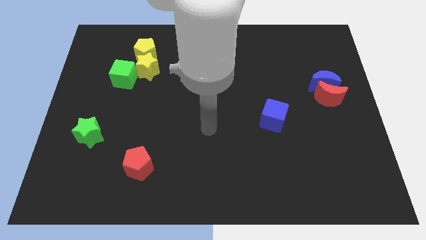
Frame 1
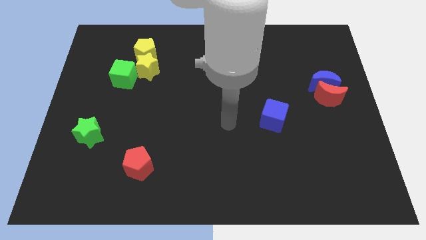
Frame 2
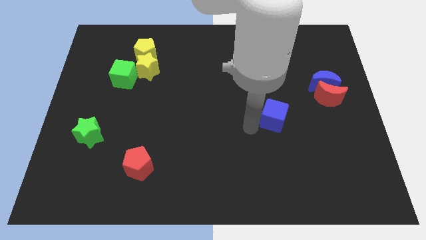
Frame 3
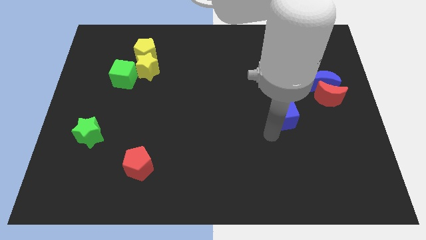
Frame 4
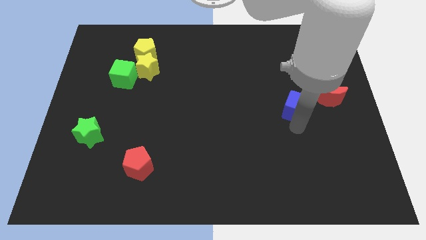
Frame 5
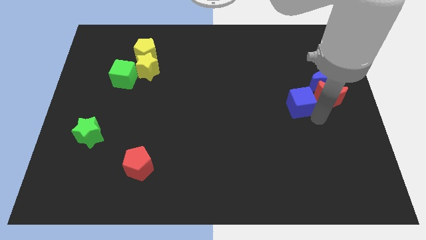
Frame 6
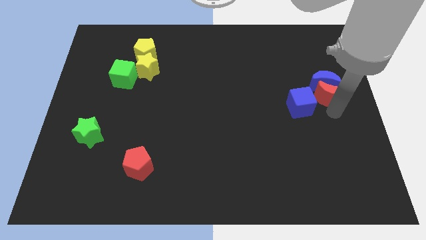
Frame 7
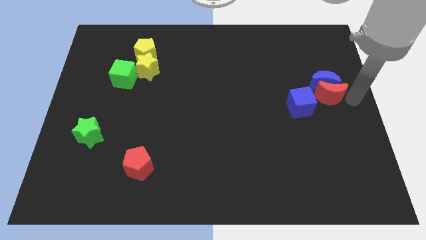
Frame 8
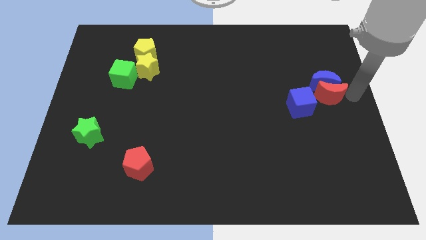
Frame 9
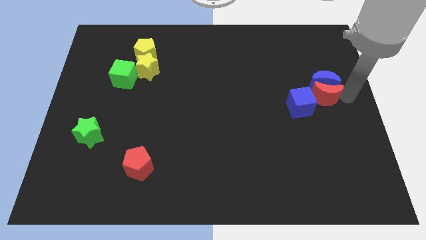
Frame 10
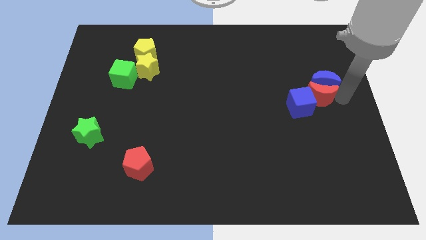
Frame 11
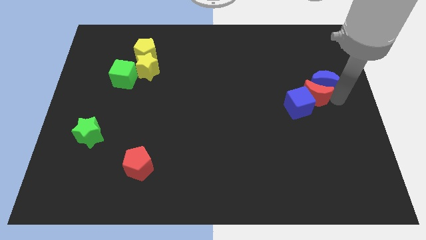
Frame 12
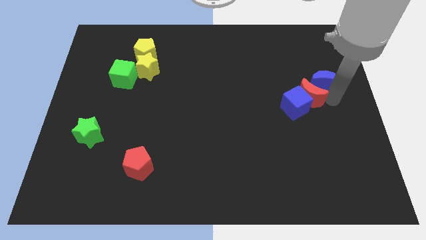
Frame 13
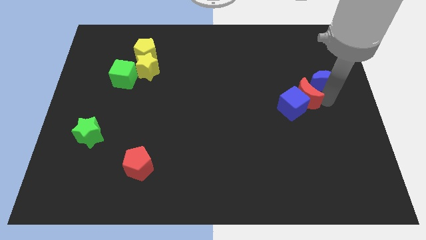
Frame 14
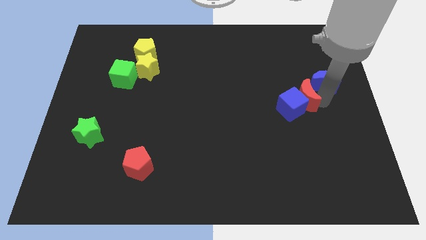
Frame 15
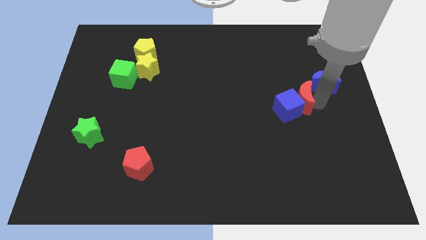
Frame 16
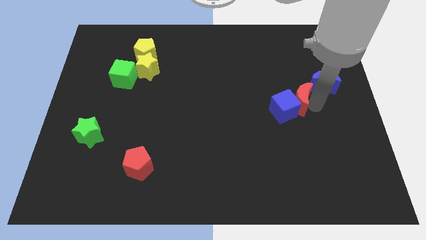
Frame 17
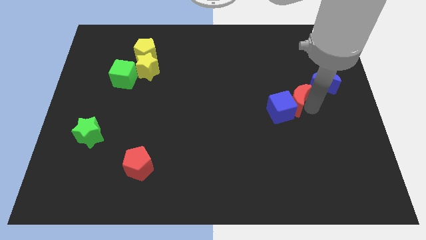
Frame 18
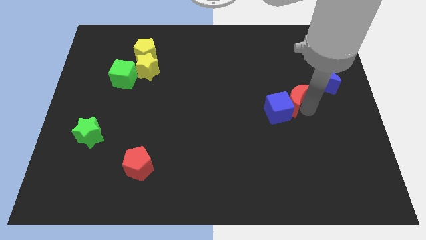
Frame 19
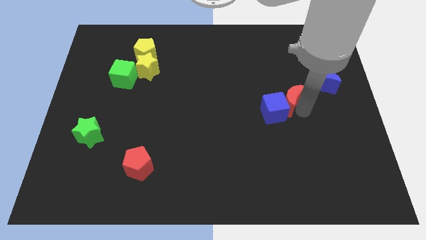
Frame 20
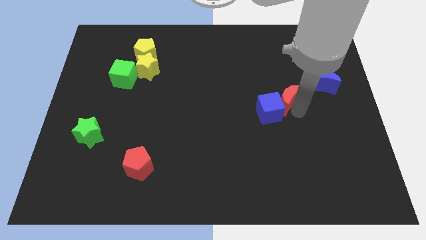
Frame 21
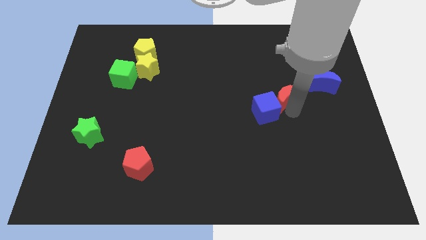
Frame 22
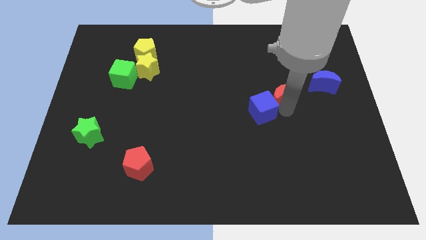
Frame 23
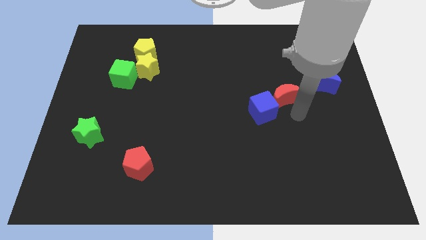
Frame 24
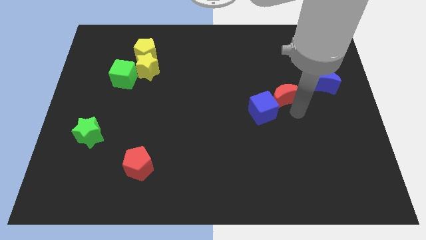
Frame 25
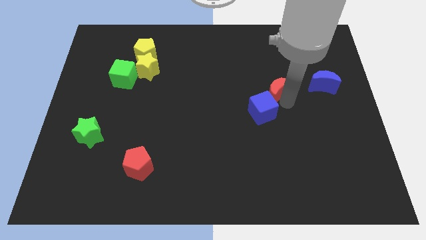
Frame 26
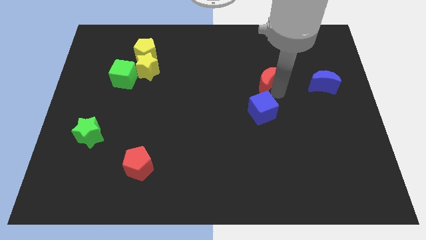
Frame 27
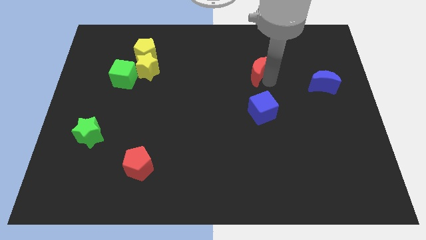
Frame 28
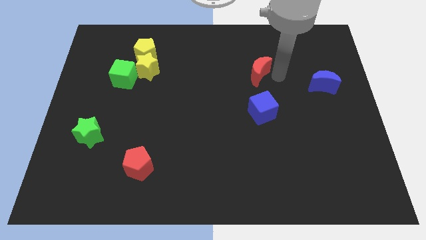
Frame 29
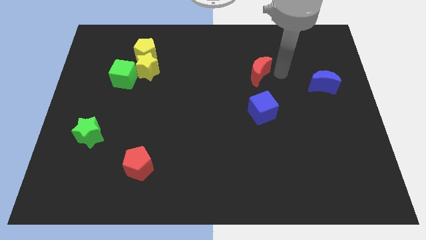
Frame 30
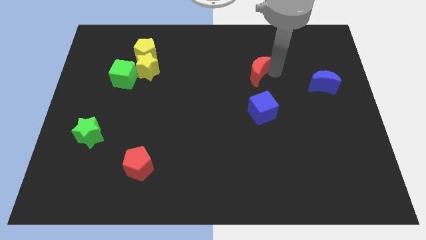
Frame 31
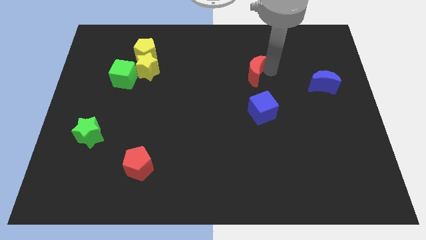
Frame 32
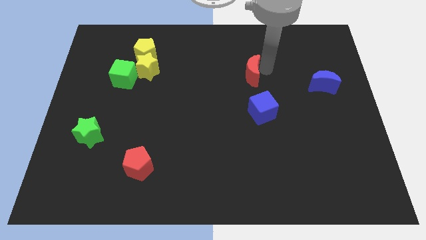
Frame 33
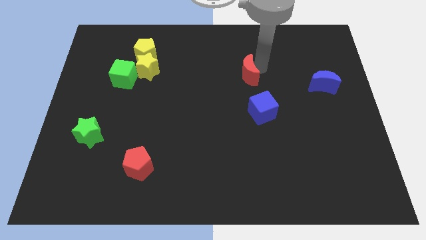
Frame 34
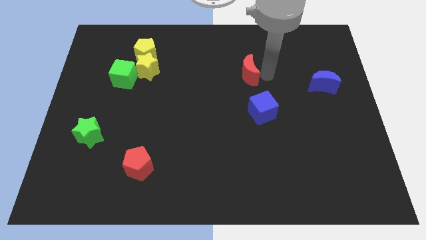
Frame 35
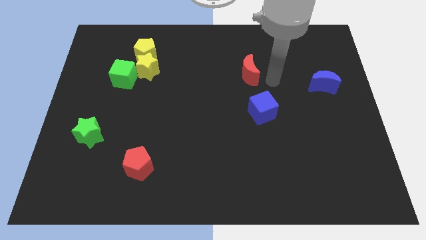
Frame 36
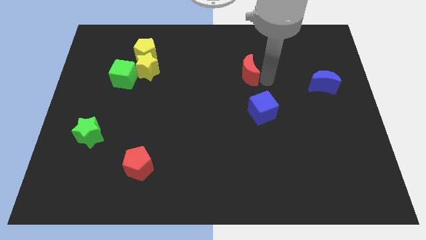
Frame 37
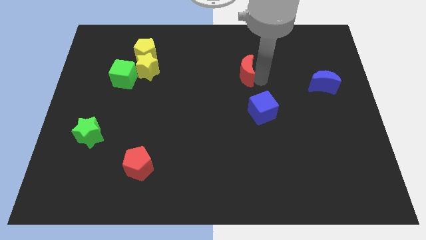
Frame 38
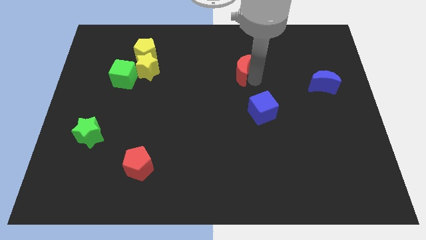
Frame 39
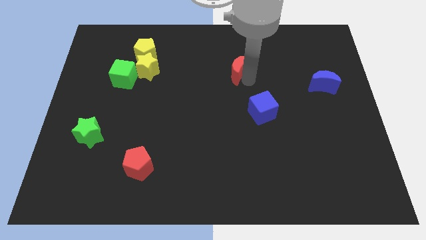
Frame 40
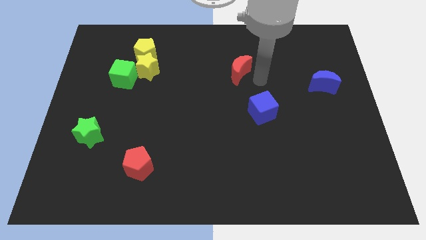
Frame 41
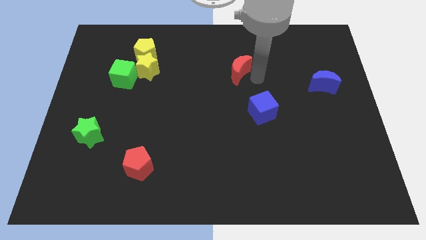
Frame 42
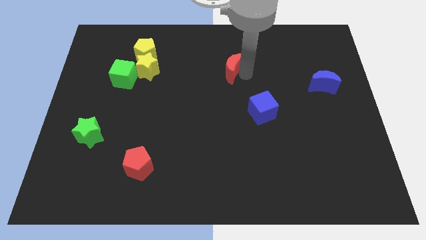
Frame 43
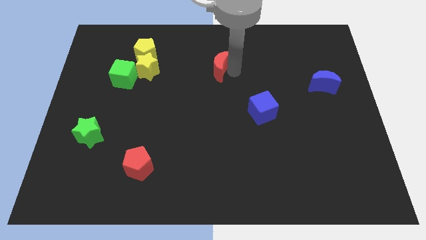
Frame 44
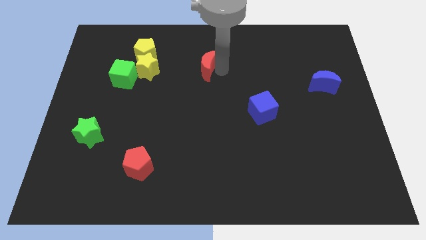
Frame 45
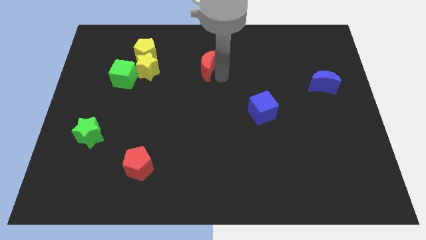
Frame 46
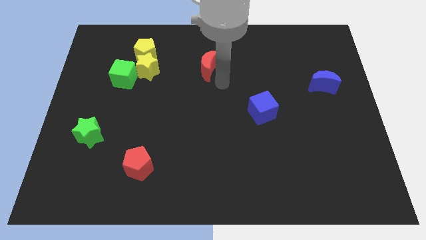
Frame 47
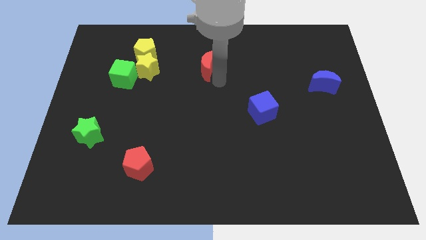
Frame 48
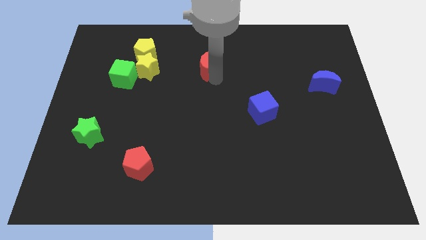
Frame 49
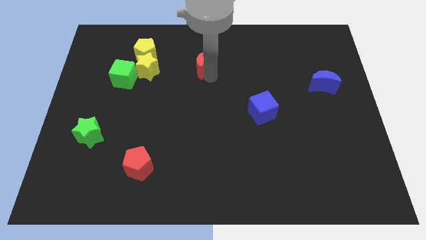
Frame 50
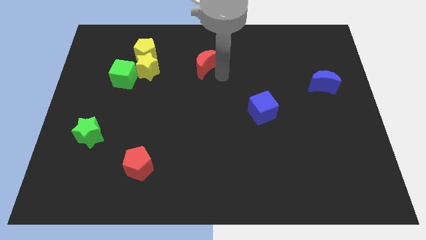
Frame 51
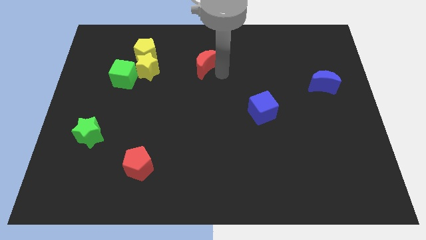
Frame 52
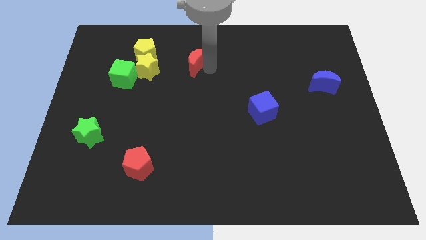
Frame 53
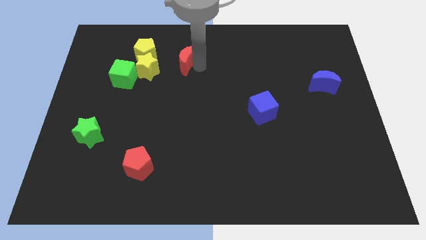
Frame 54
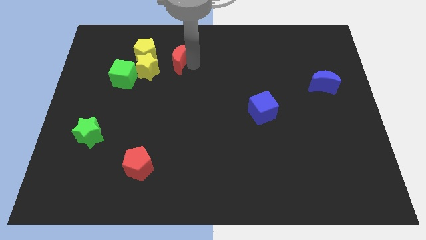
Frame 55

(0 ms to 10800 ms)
slide the red moon diagonally up and to the right of the yellow star

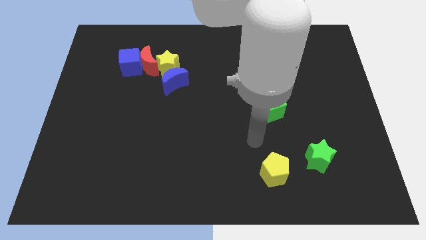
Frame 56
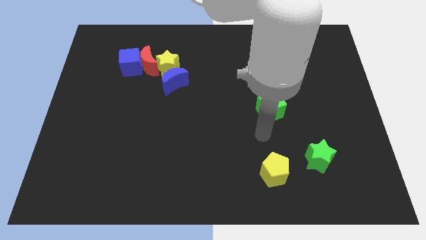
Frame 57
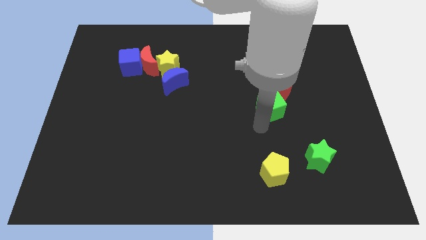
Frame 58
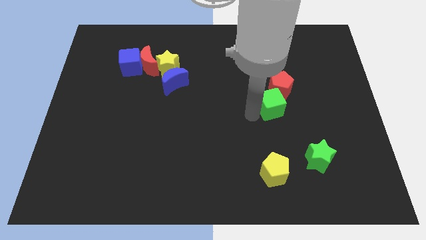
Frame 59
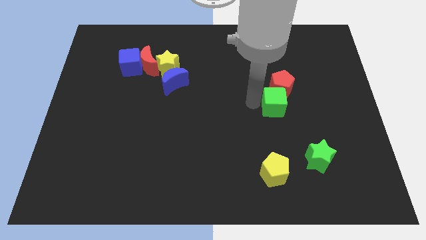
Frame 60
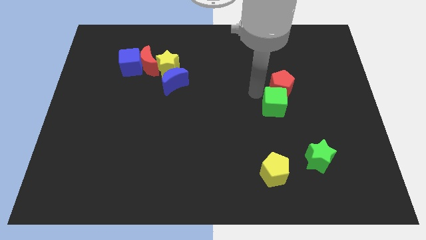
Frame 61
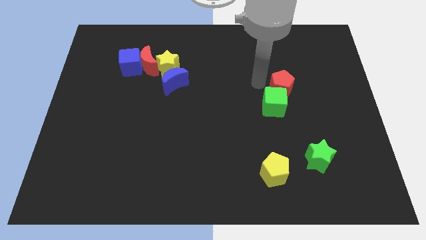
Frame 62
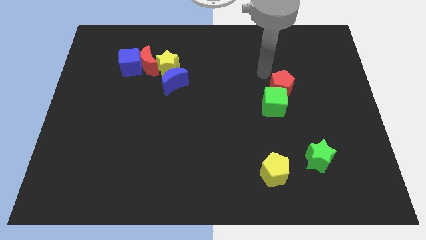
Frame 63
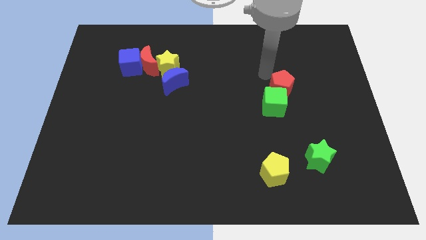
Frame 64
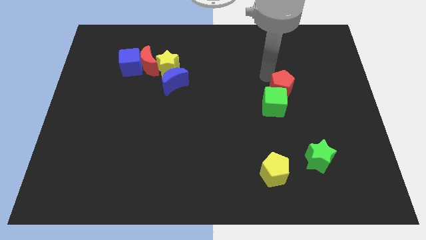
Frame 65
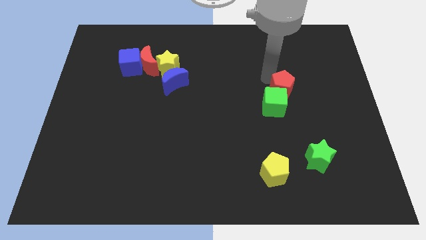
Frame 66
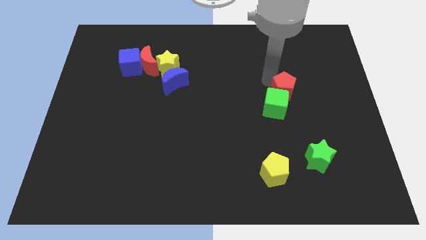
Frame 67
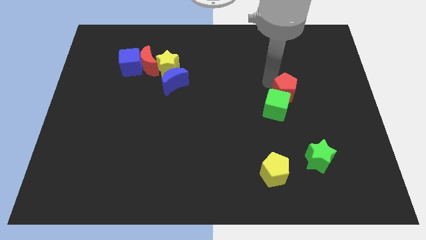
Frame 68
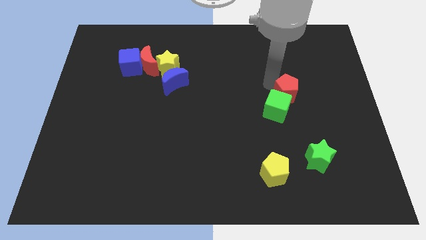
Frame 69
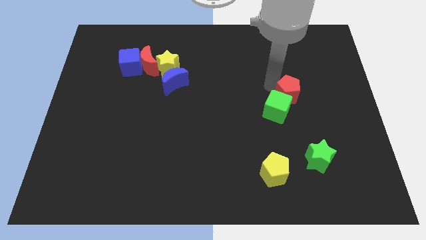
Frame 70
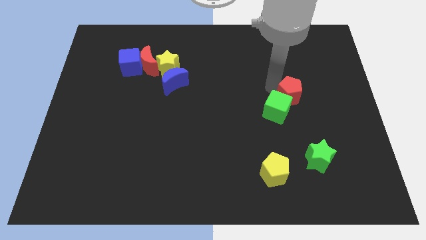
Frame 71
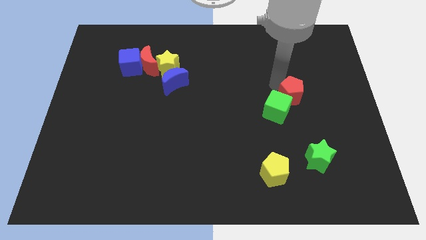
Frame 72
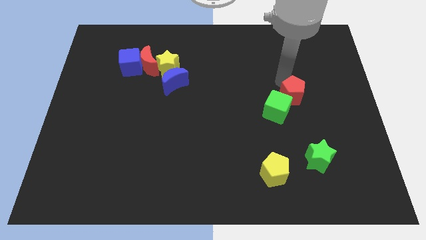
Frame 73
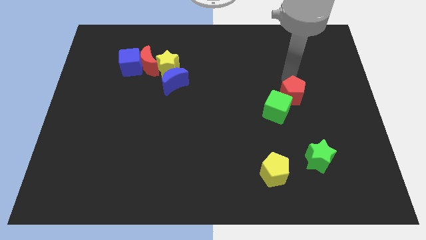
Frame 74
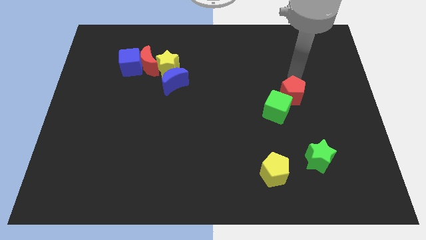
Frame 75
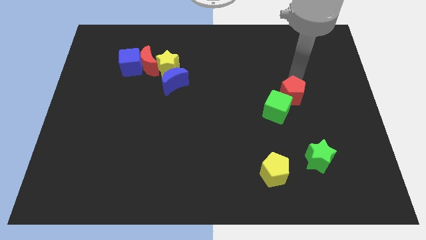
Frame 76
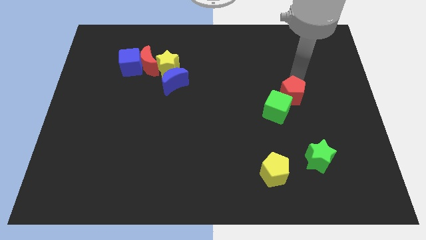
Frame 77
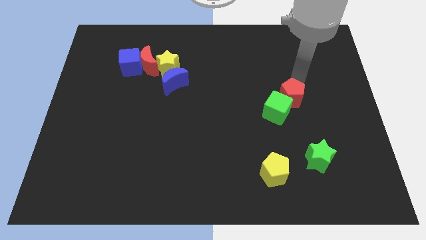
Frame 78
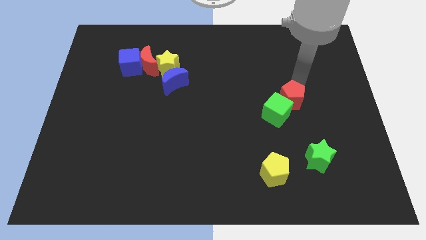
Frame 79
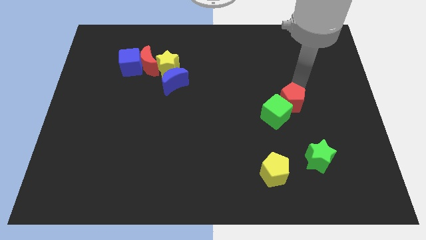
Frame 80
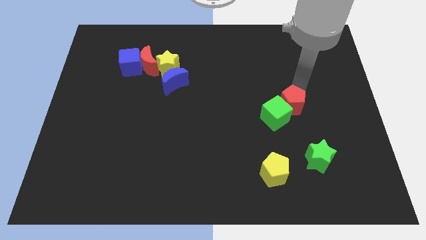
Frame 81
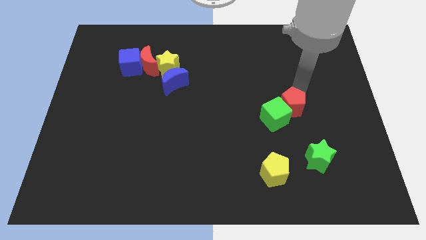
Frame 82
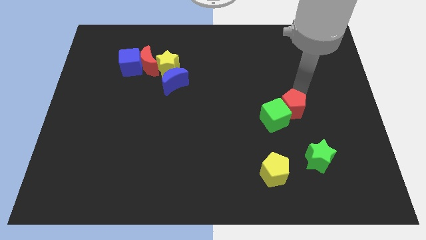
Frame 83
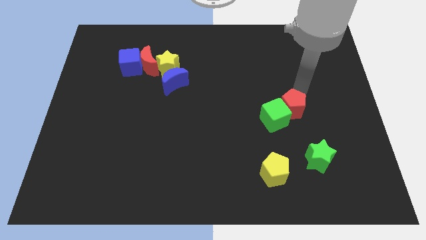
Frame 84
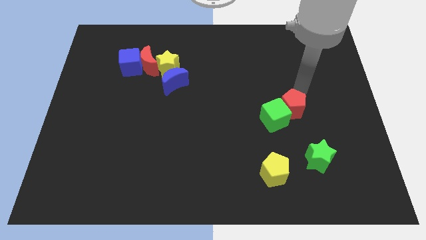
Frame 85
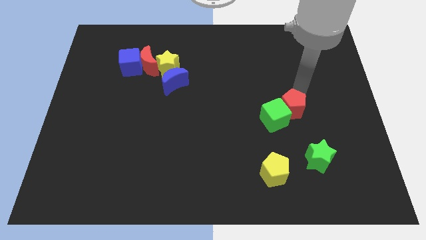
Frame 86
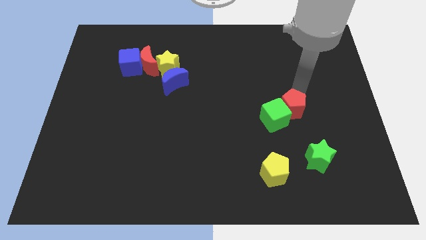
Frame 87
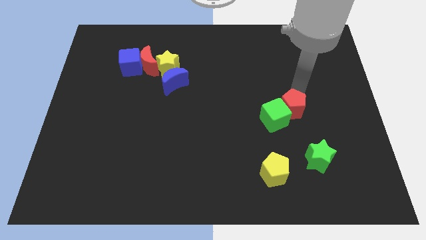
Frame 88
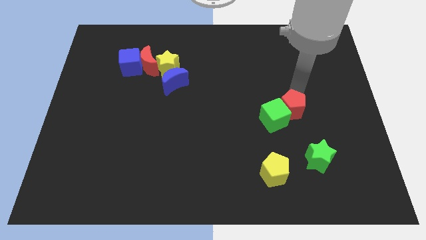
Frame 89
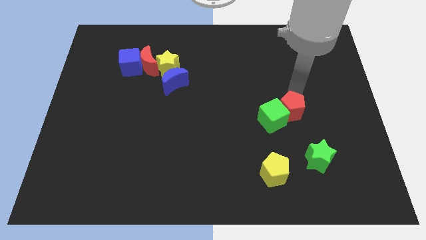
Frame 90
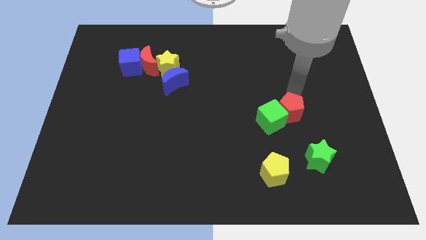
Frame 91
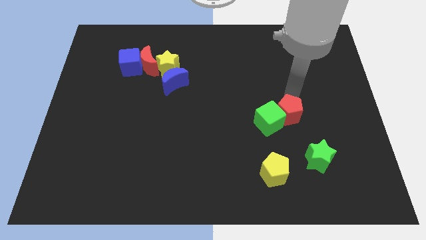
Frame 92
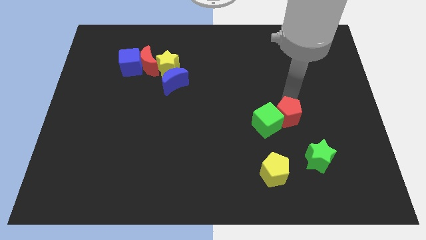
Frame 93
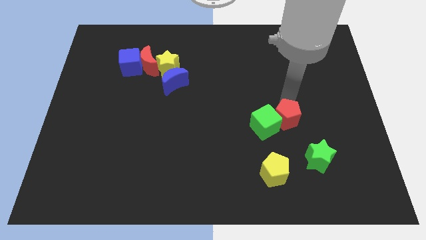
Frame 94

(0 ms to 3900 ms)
put the red pentagon to the top side of the yellow pentagon
